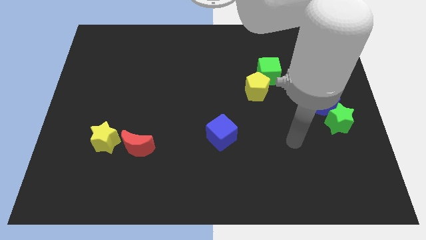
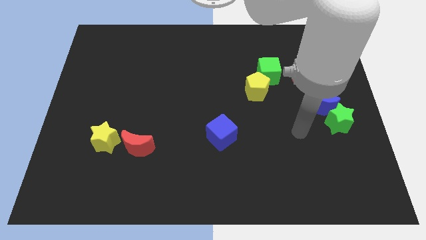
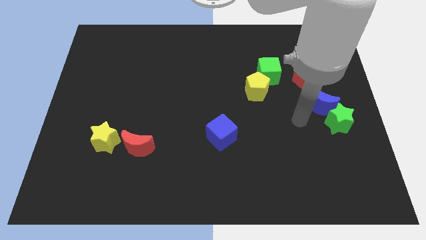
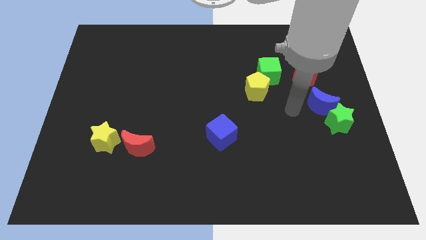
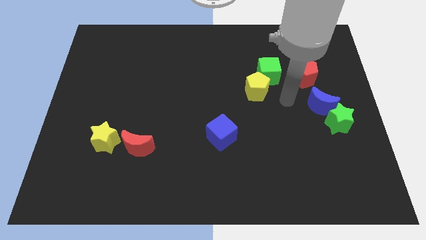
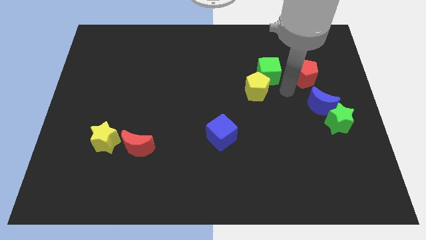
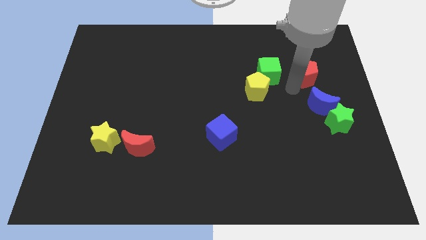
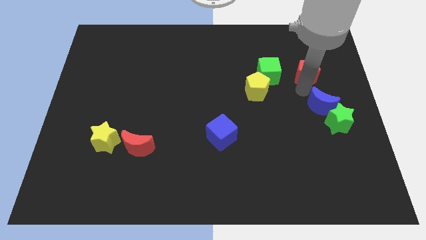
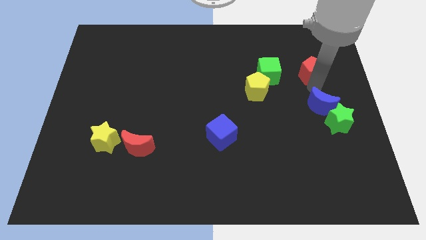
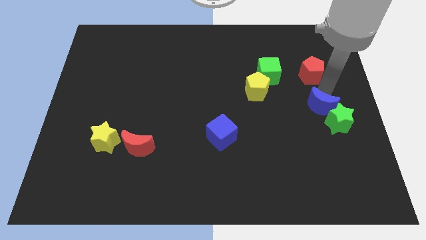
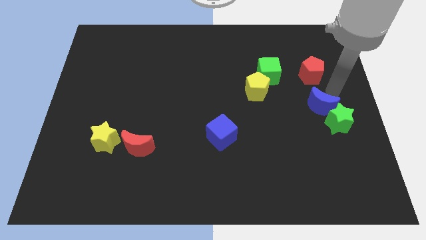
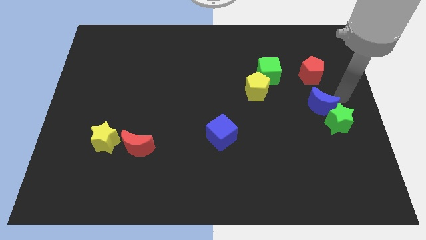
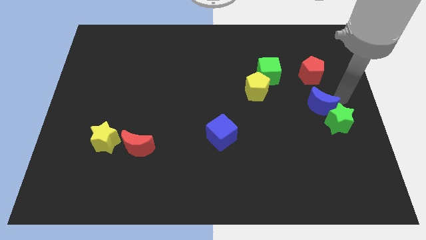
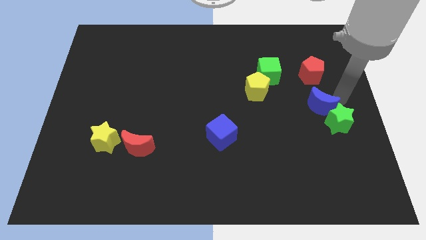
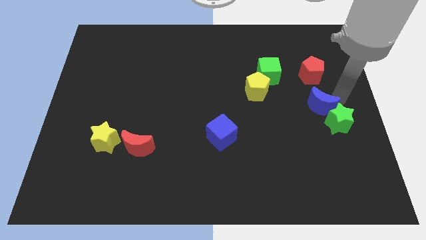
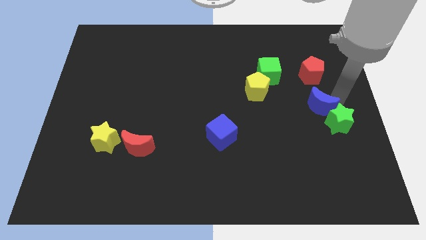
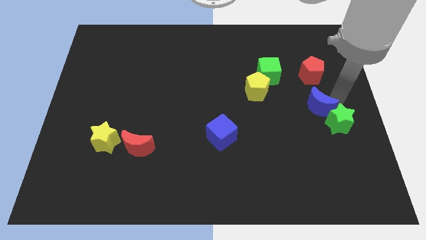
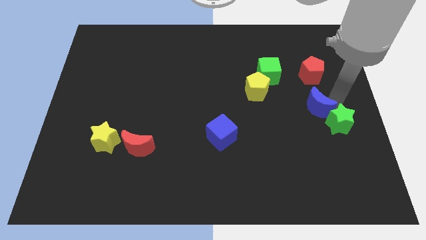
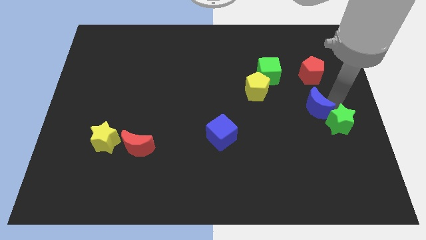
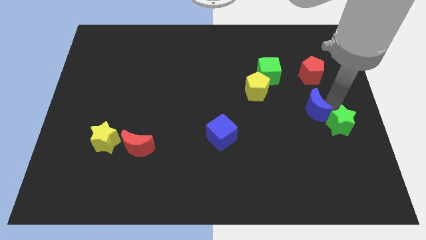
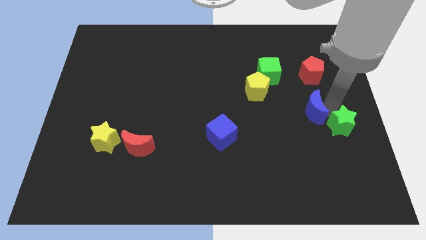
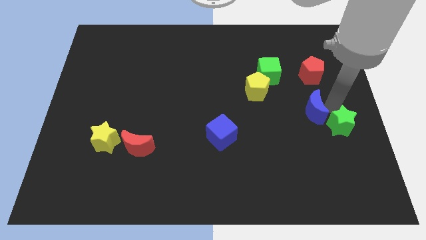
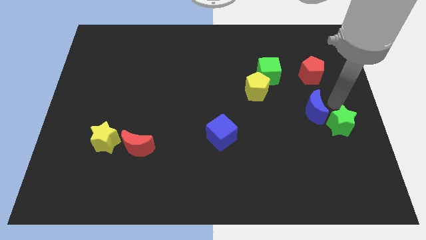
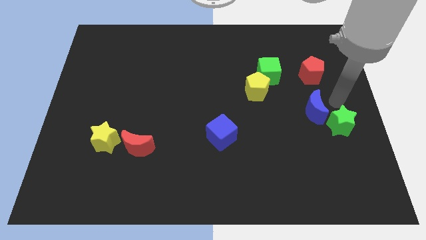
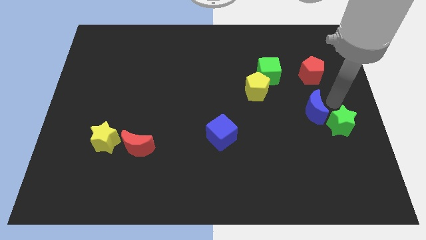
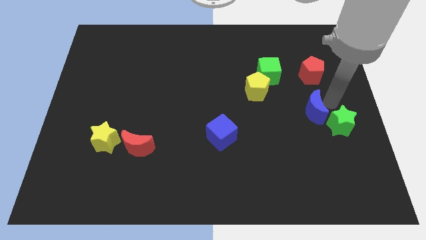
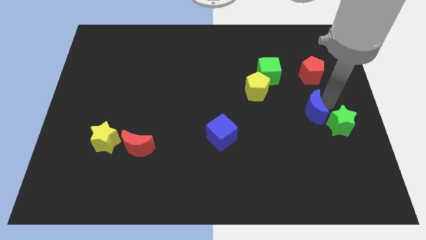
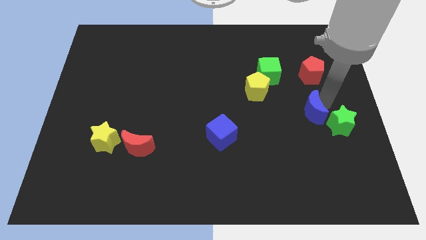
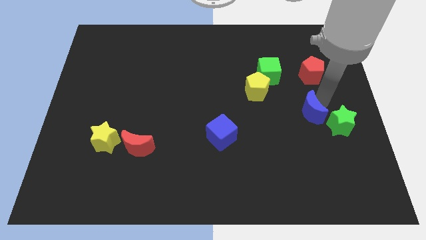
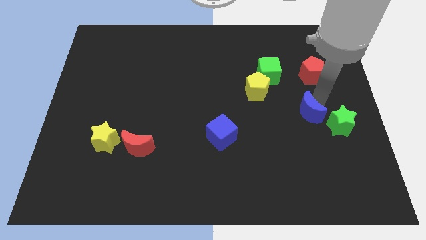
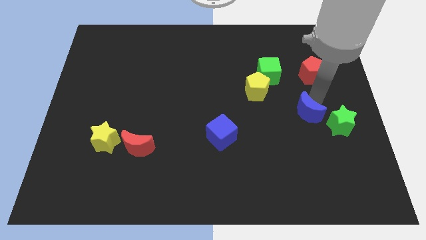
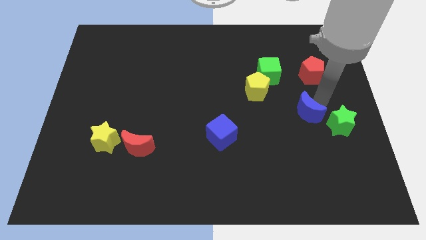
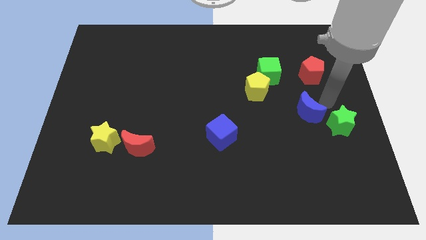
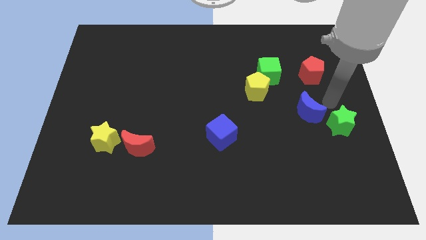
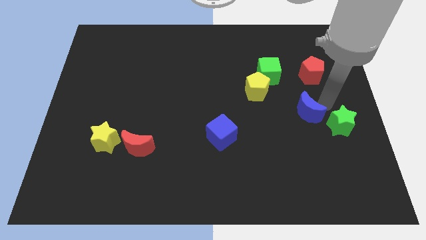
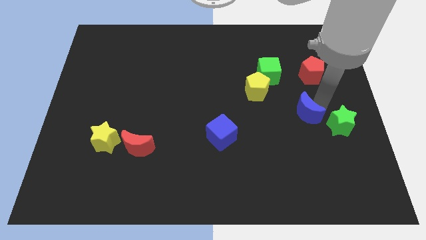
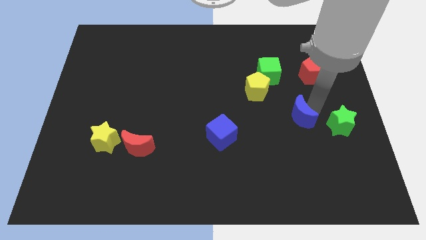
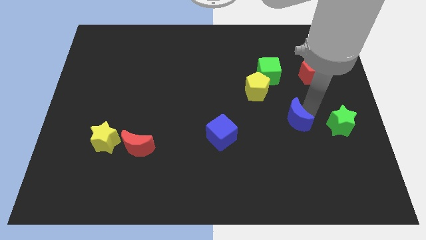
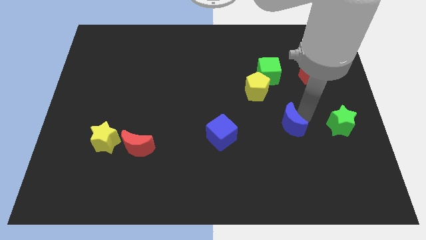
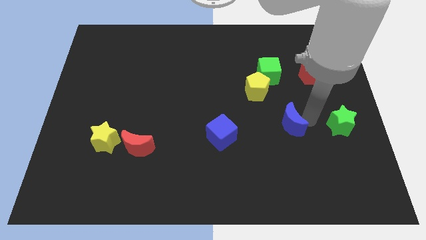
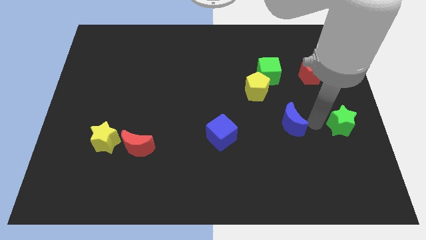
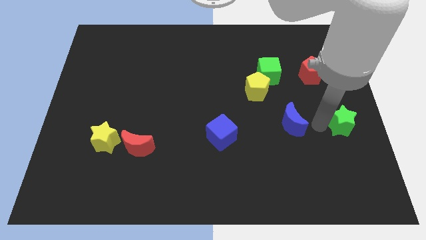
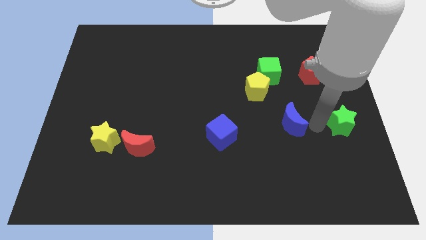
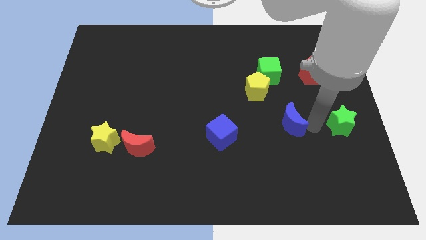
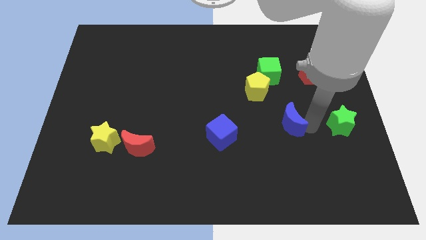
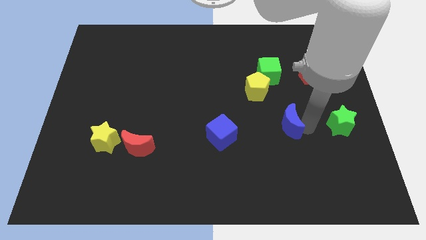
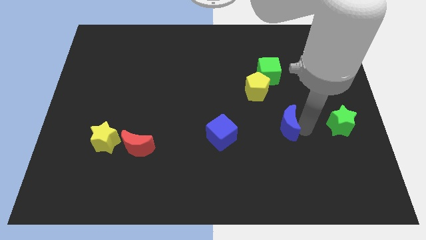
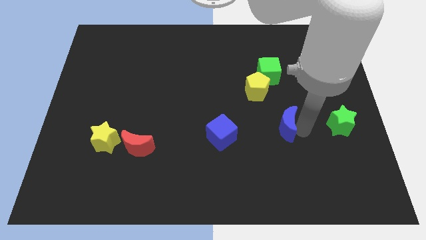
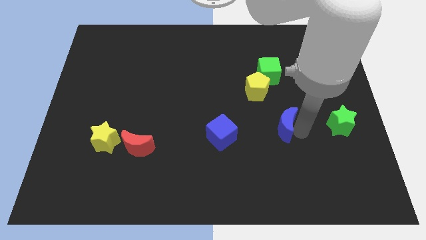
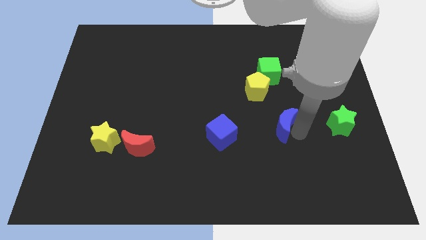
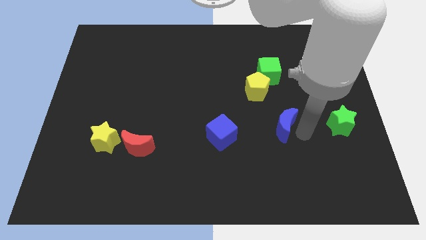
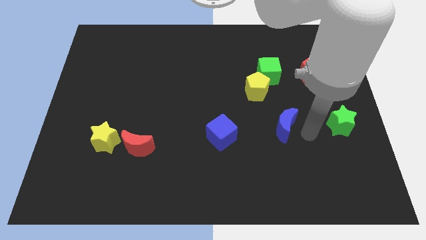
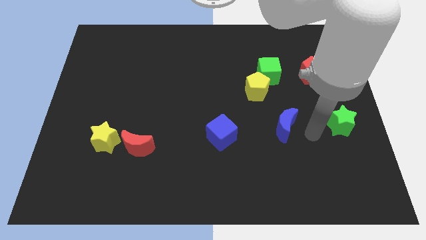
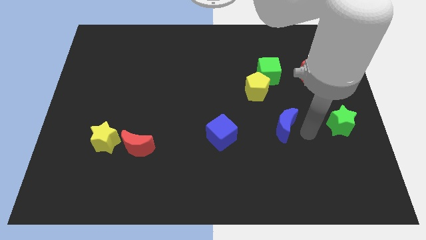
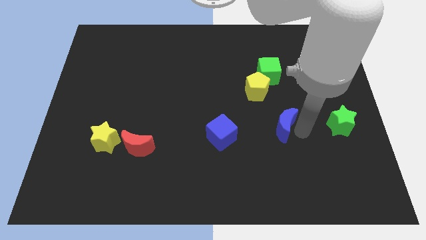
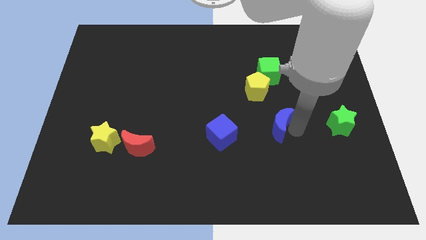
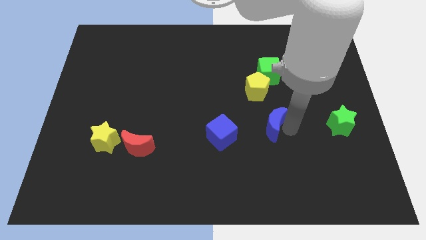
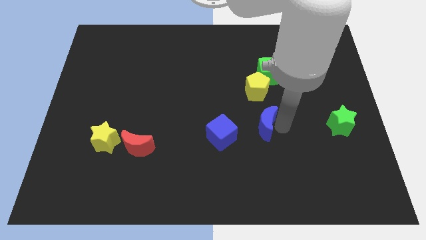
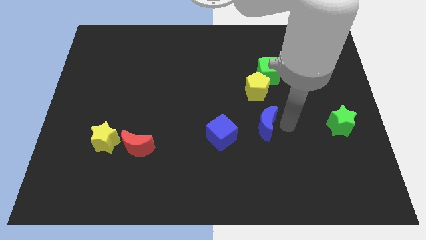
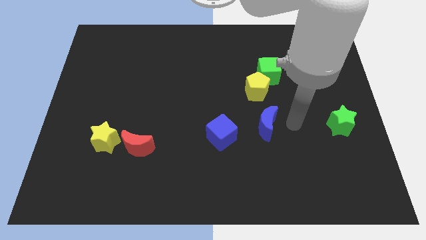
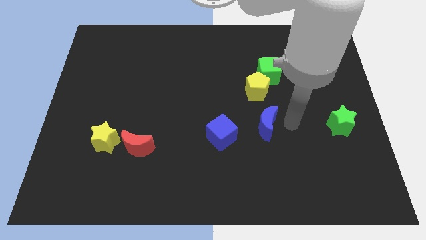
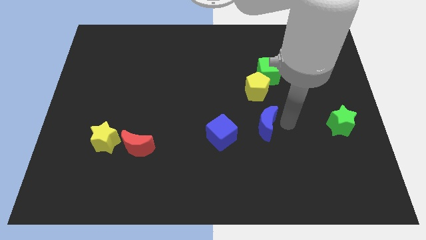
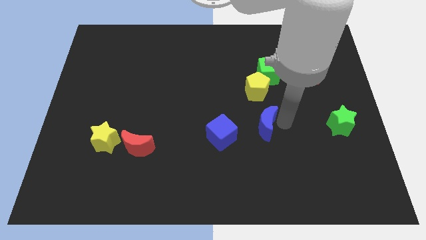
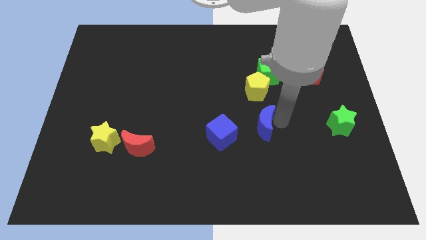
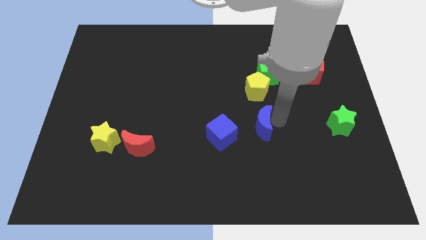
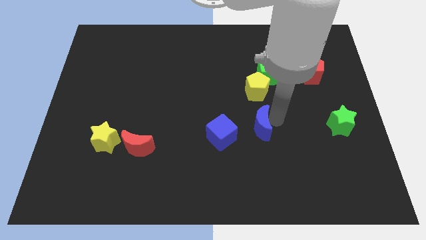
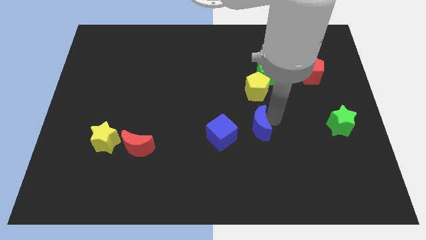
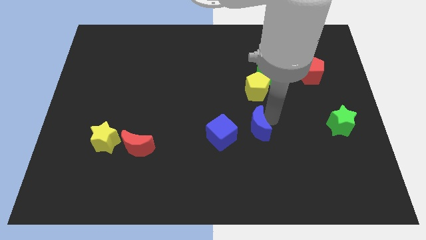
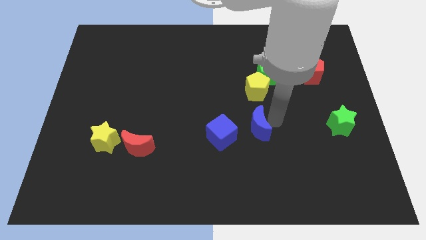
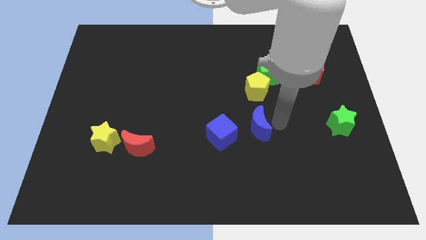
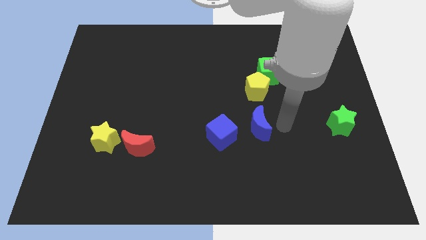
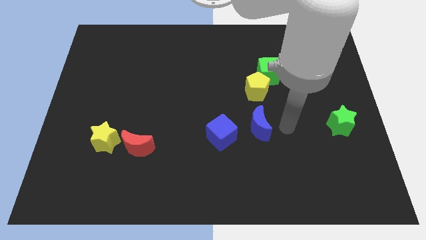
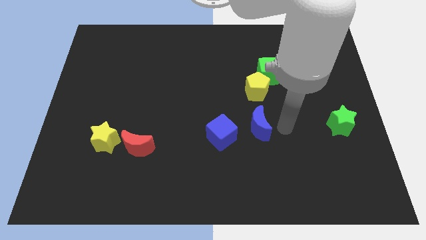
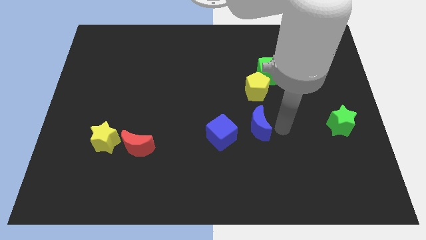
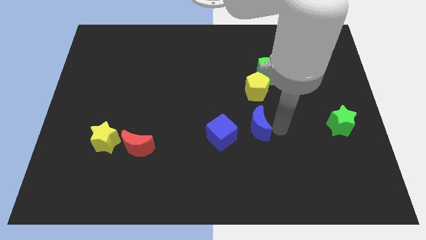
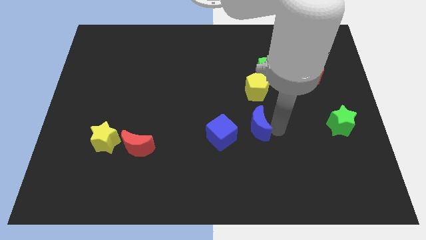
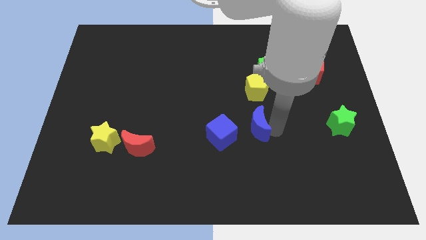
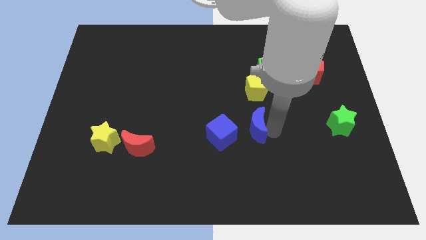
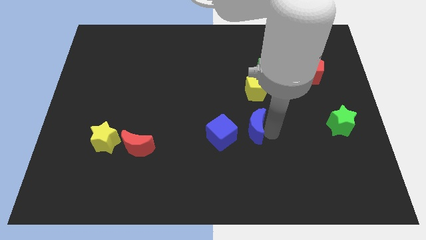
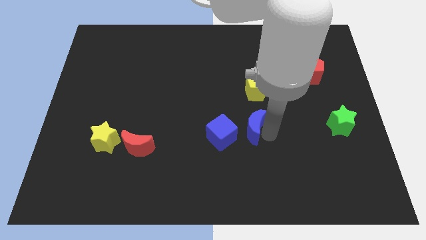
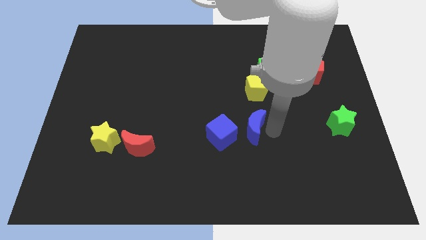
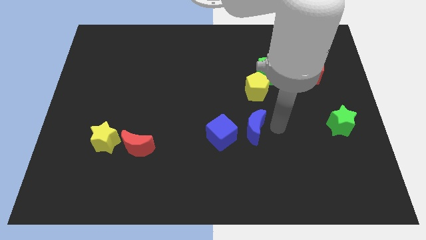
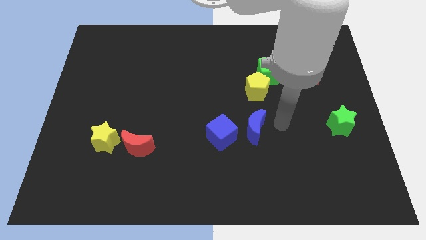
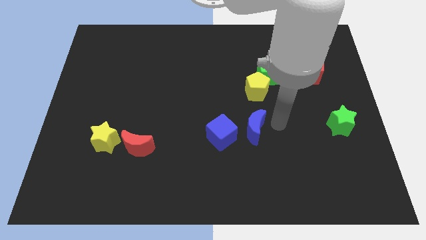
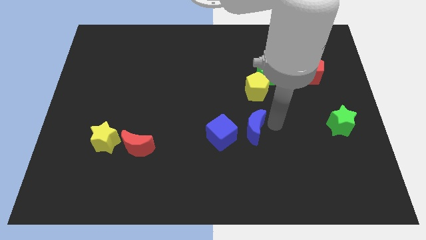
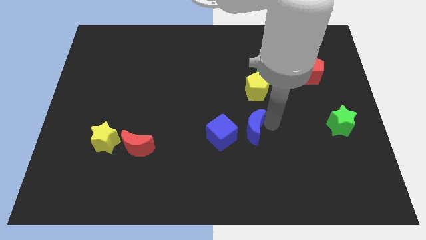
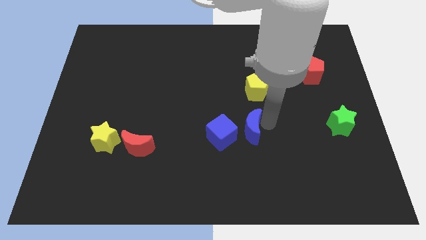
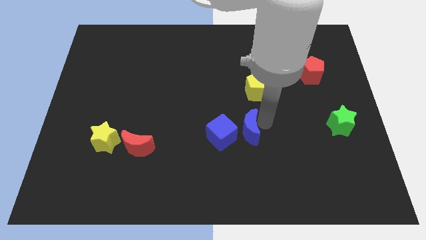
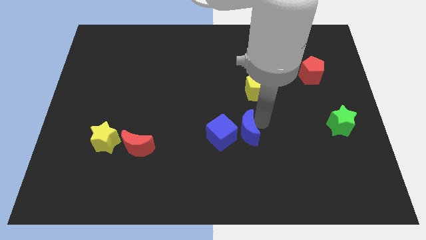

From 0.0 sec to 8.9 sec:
push the blue moon close to the blue cube
